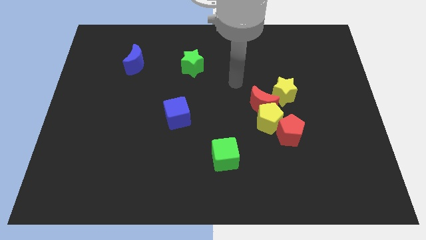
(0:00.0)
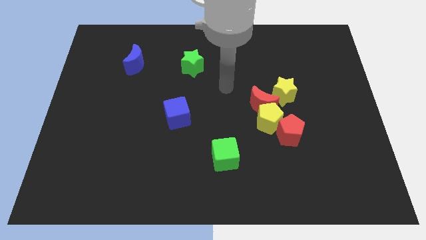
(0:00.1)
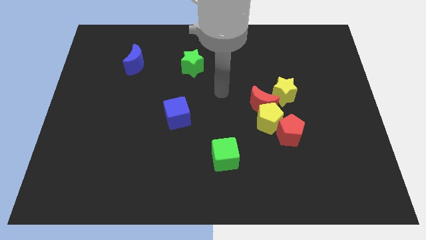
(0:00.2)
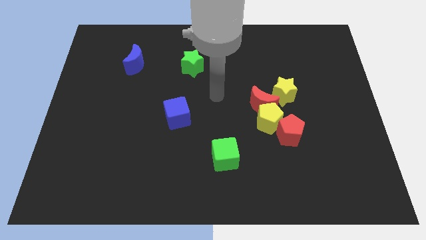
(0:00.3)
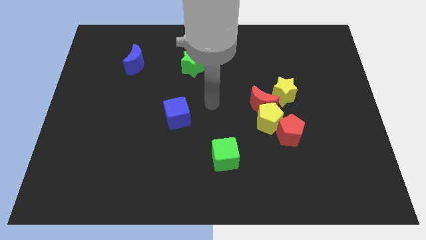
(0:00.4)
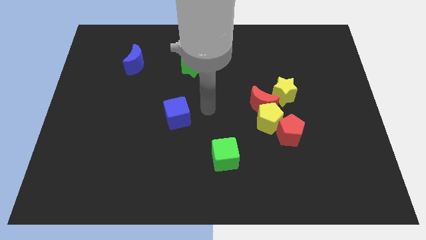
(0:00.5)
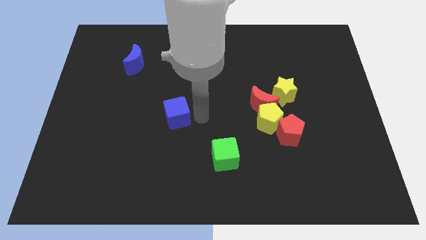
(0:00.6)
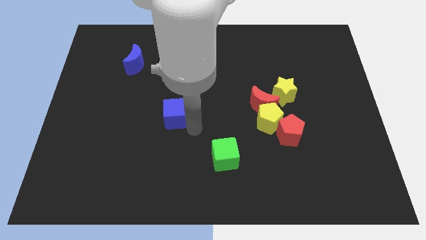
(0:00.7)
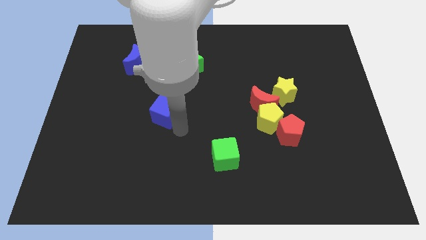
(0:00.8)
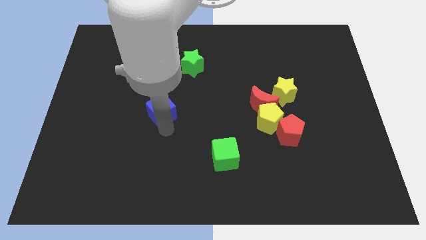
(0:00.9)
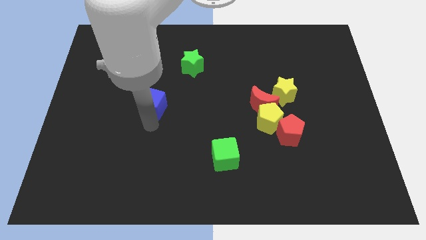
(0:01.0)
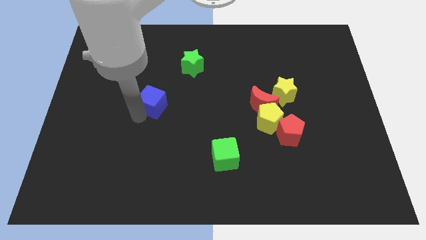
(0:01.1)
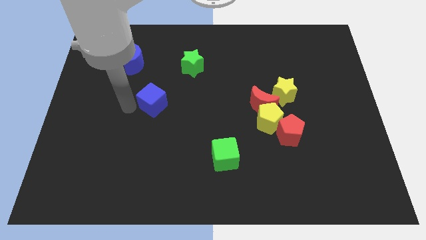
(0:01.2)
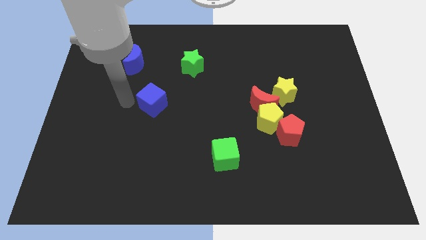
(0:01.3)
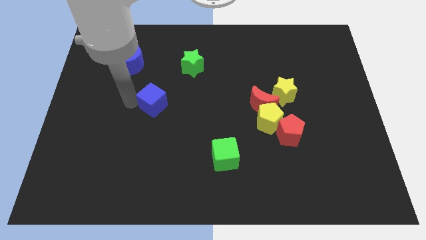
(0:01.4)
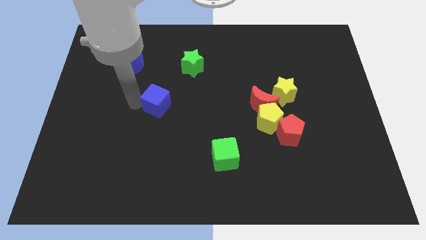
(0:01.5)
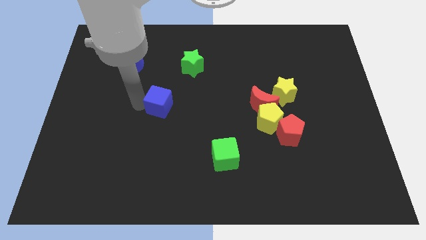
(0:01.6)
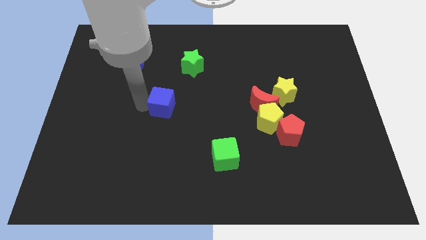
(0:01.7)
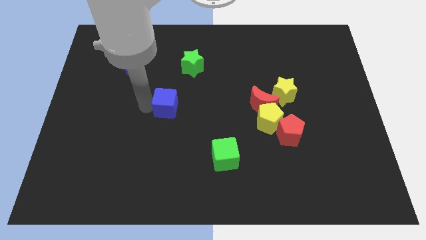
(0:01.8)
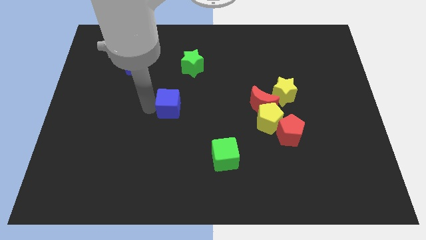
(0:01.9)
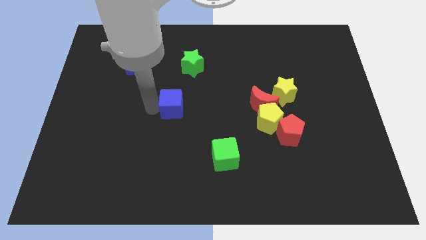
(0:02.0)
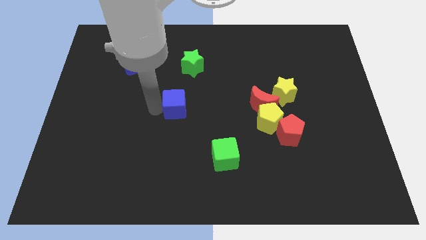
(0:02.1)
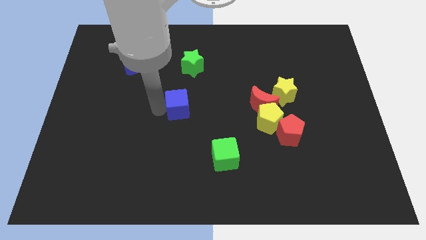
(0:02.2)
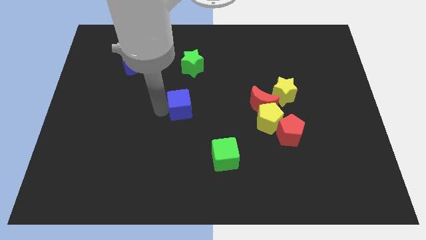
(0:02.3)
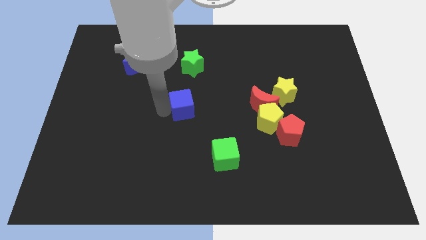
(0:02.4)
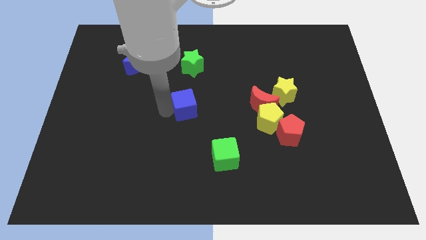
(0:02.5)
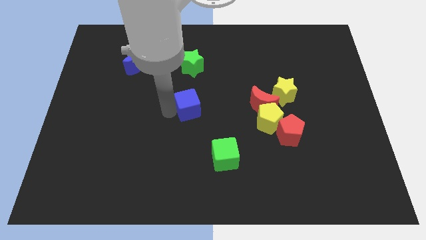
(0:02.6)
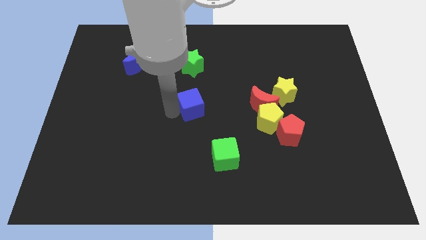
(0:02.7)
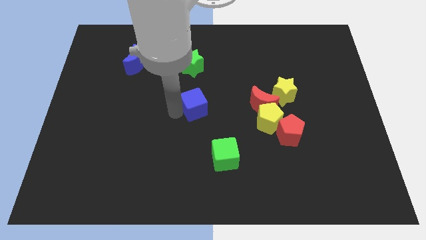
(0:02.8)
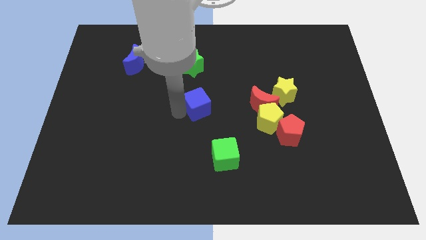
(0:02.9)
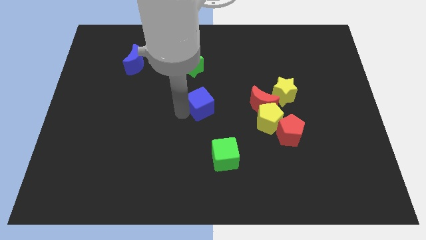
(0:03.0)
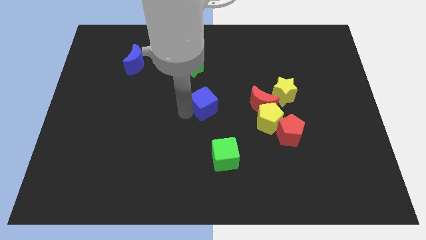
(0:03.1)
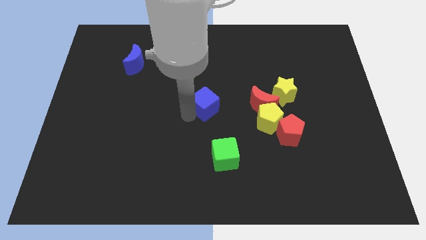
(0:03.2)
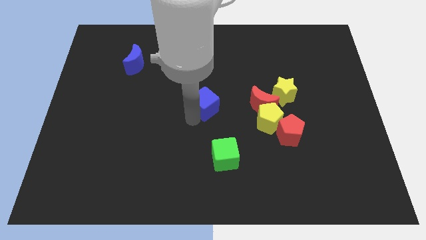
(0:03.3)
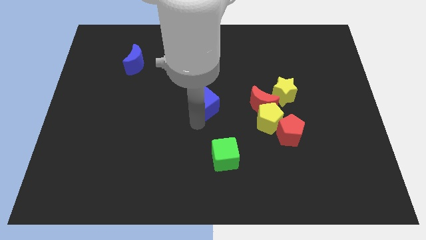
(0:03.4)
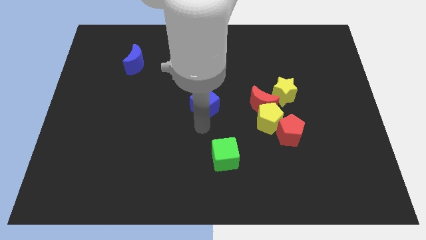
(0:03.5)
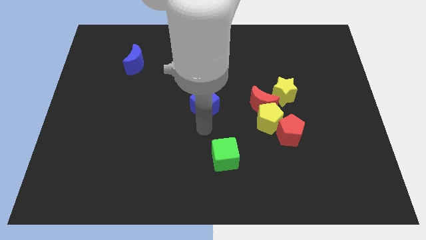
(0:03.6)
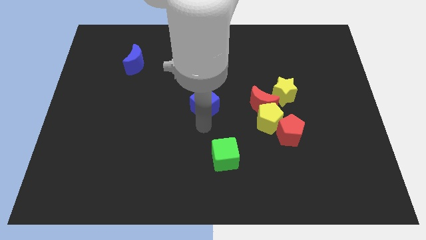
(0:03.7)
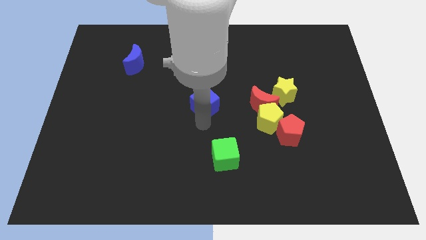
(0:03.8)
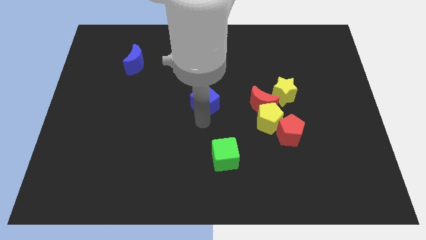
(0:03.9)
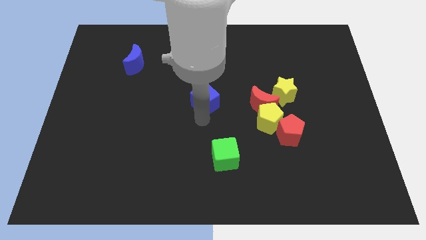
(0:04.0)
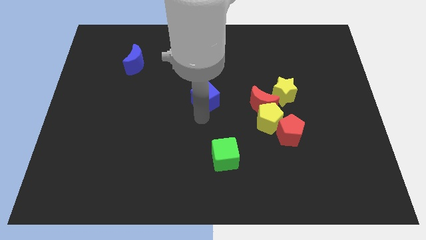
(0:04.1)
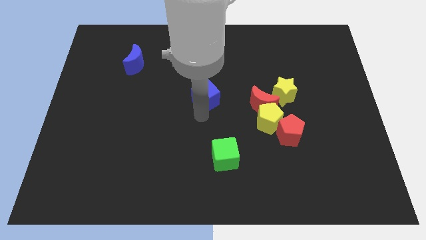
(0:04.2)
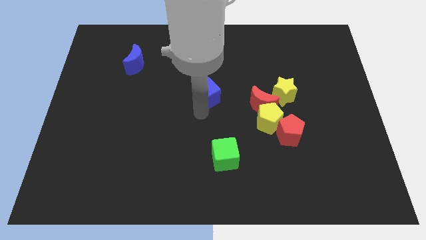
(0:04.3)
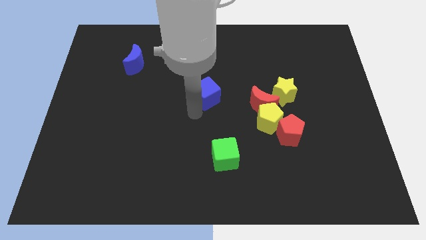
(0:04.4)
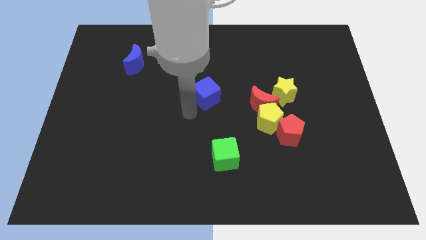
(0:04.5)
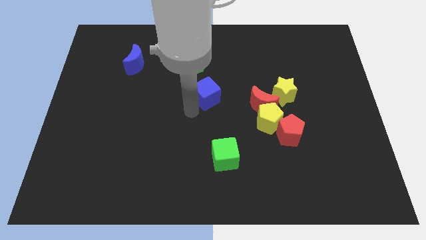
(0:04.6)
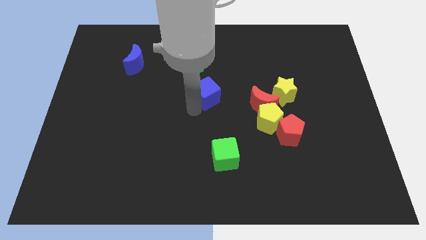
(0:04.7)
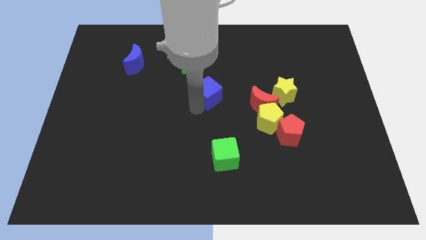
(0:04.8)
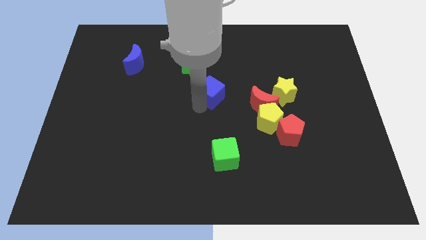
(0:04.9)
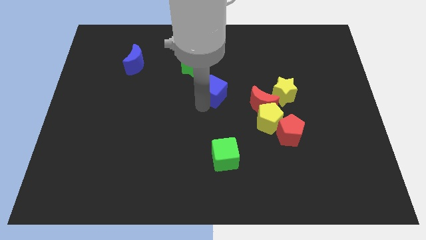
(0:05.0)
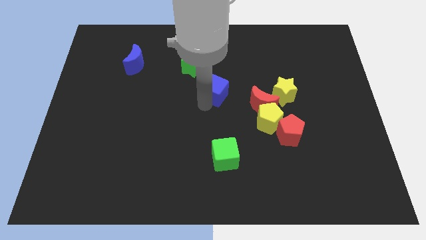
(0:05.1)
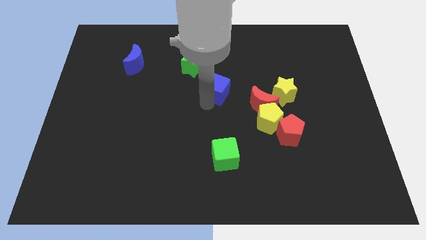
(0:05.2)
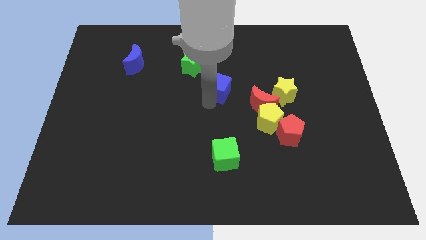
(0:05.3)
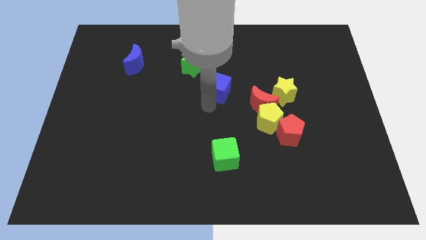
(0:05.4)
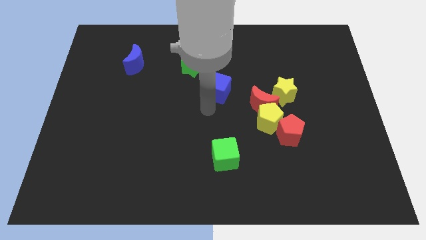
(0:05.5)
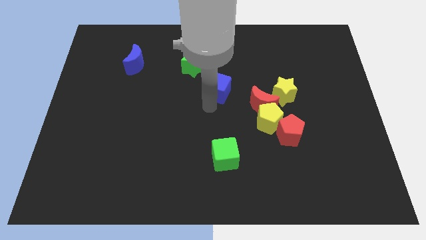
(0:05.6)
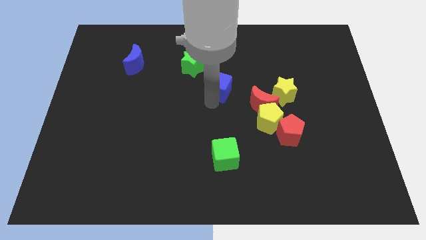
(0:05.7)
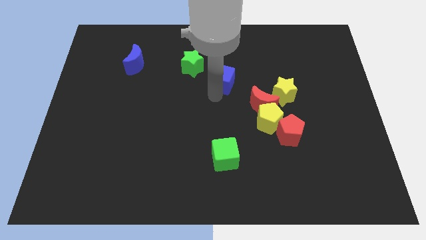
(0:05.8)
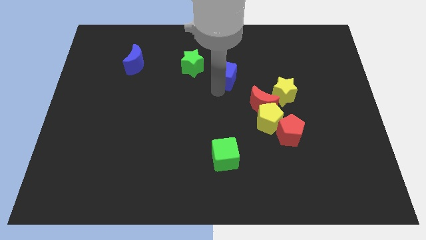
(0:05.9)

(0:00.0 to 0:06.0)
move the blue cube just right of the green star

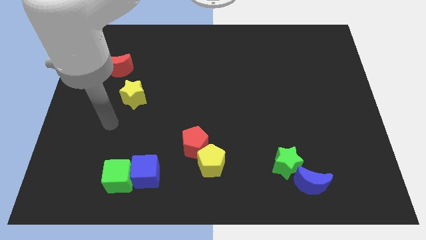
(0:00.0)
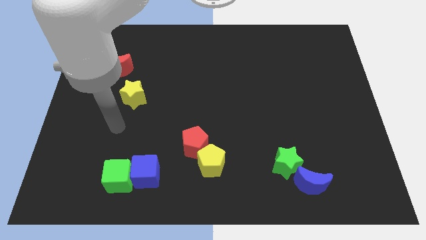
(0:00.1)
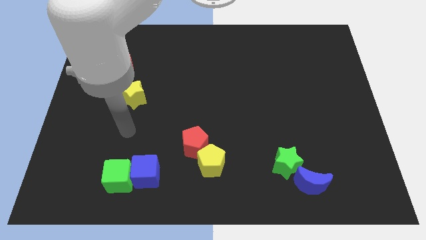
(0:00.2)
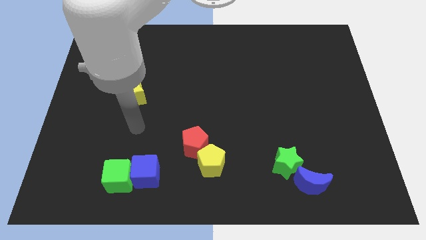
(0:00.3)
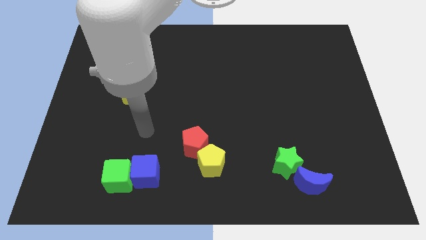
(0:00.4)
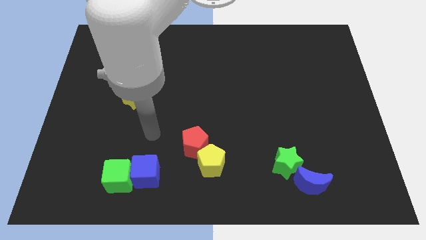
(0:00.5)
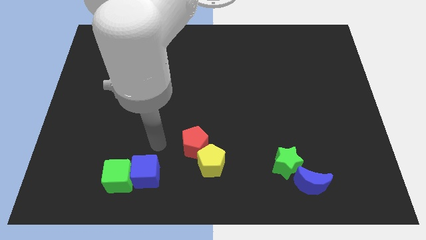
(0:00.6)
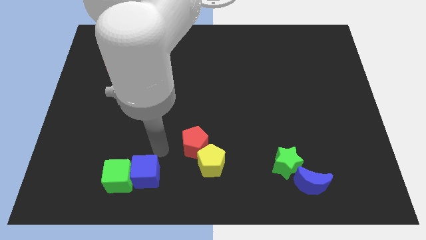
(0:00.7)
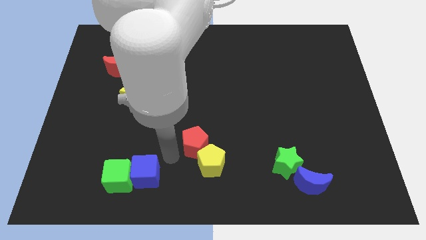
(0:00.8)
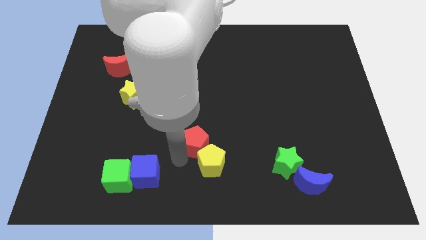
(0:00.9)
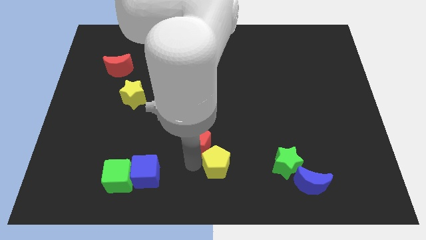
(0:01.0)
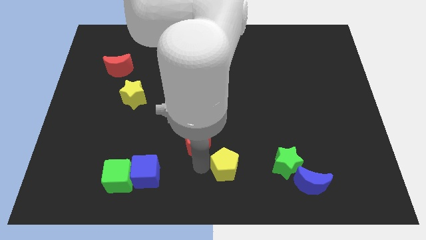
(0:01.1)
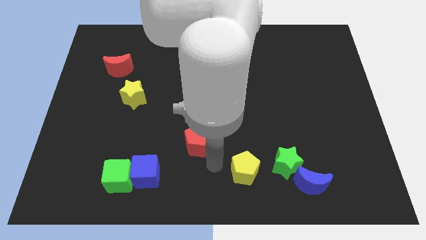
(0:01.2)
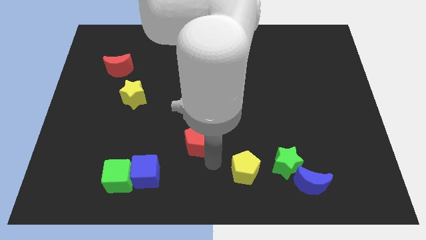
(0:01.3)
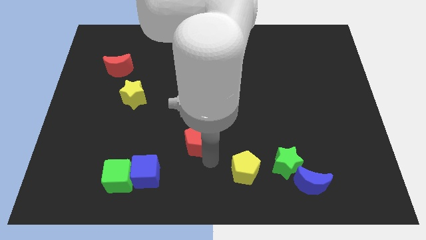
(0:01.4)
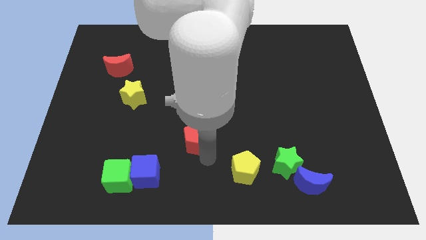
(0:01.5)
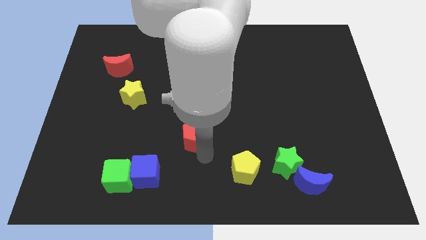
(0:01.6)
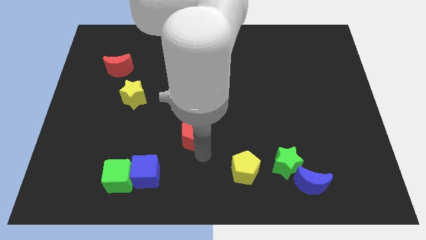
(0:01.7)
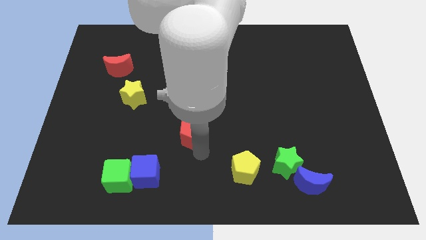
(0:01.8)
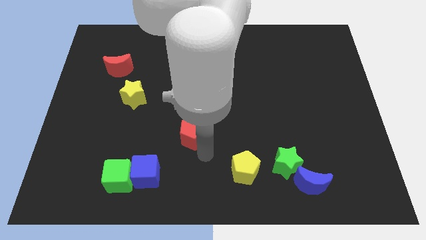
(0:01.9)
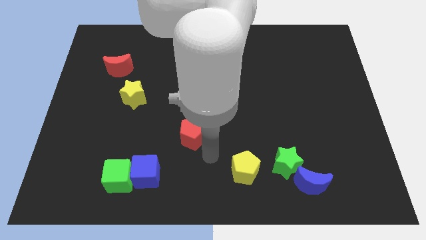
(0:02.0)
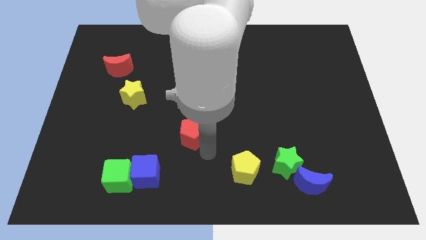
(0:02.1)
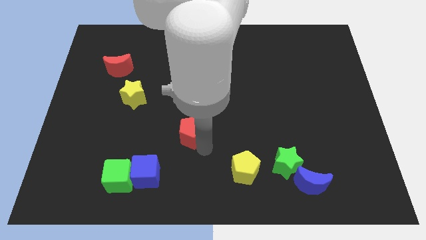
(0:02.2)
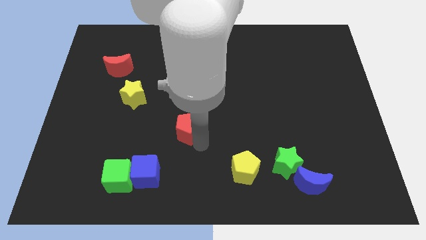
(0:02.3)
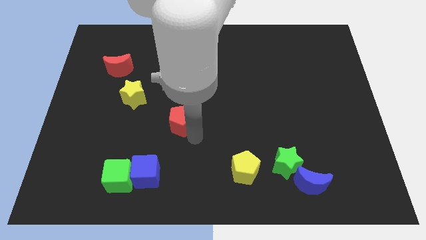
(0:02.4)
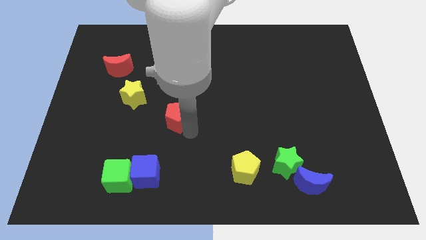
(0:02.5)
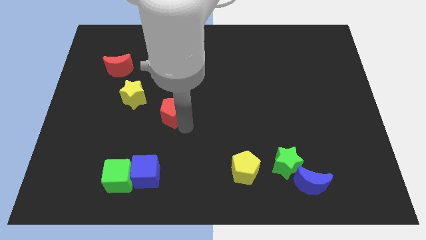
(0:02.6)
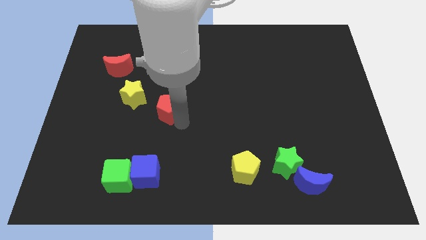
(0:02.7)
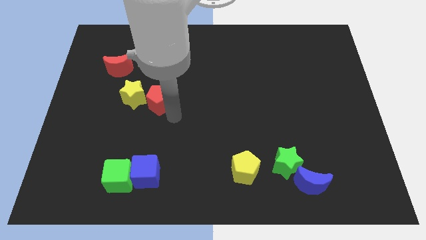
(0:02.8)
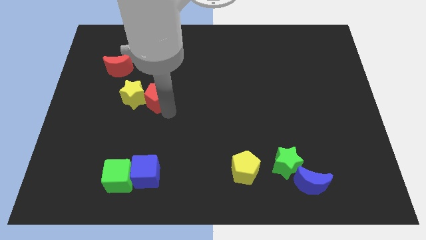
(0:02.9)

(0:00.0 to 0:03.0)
push the red pentagon diagonally up and to the right of the yellow star
